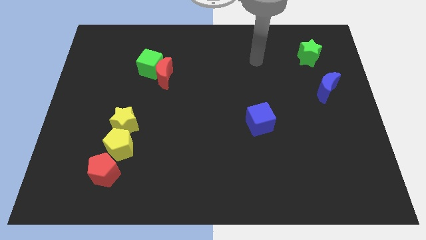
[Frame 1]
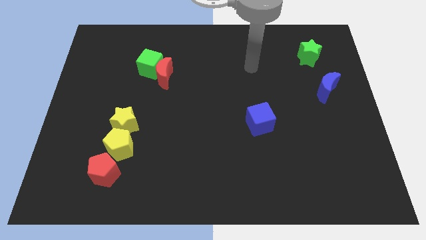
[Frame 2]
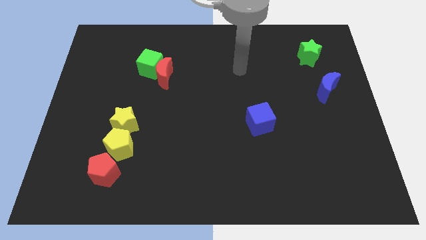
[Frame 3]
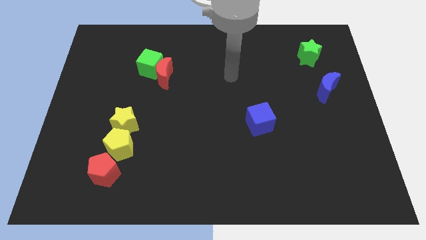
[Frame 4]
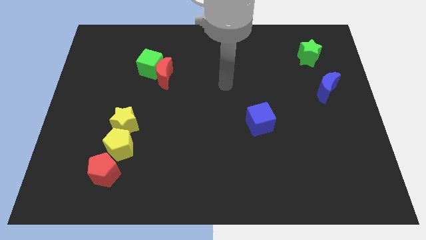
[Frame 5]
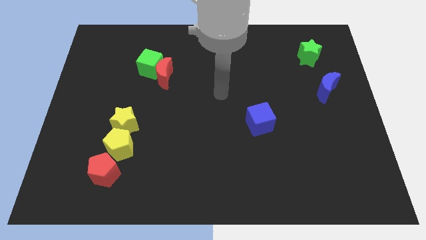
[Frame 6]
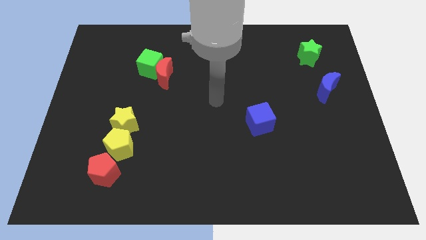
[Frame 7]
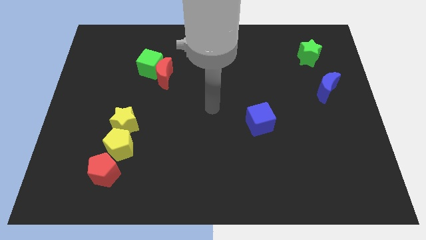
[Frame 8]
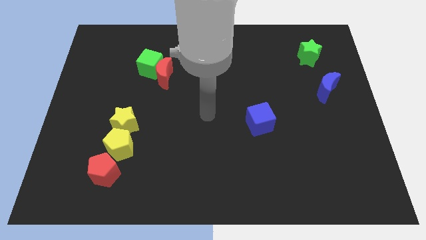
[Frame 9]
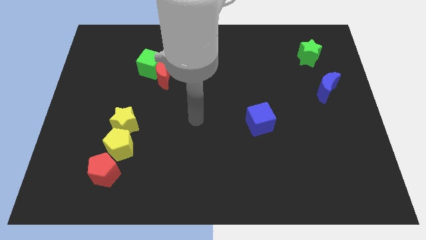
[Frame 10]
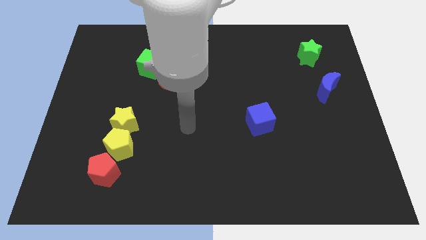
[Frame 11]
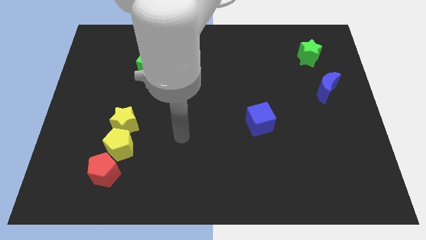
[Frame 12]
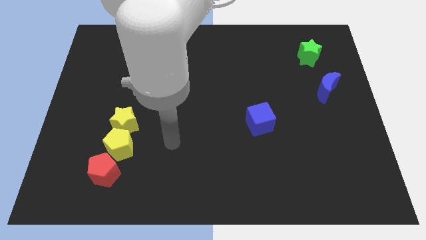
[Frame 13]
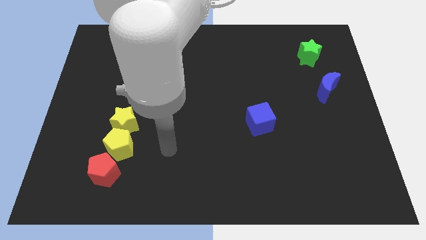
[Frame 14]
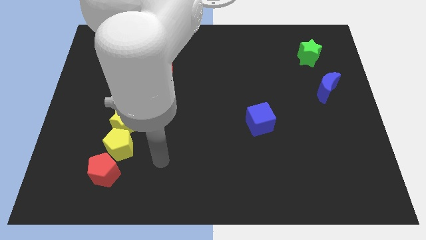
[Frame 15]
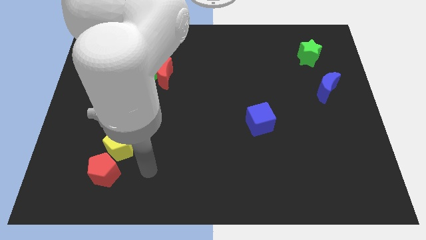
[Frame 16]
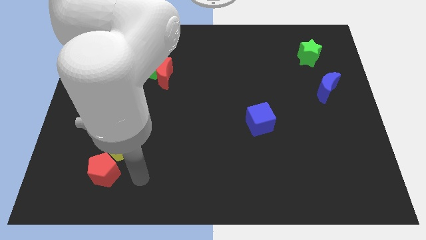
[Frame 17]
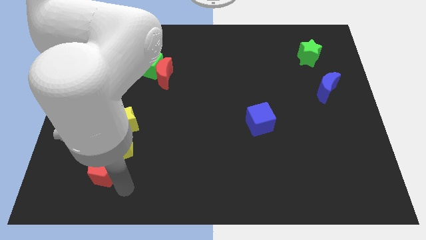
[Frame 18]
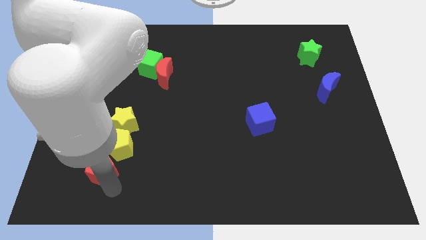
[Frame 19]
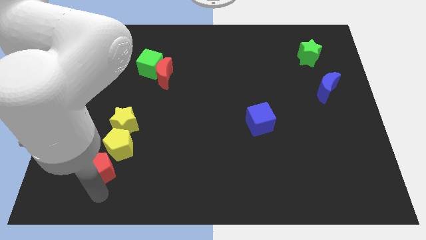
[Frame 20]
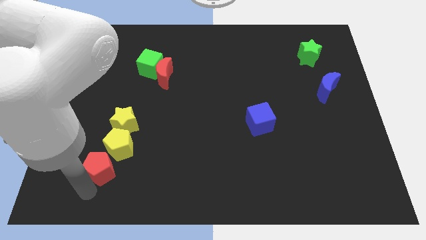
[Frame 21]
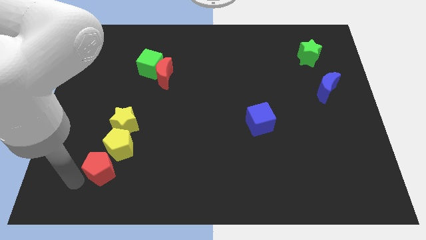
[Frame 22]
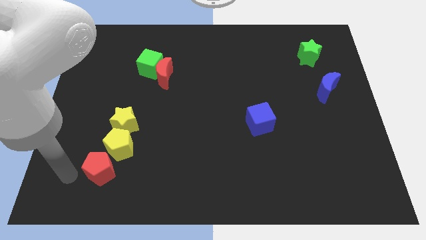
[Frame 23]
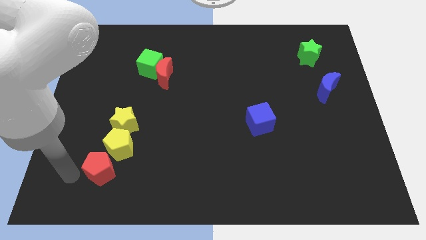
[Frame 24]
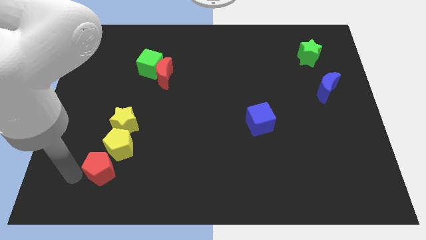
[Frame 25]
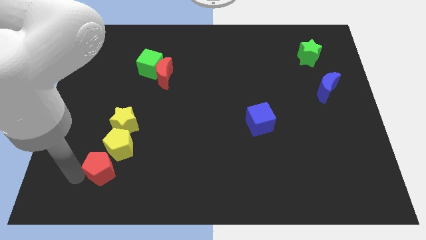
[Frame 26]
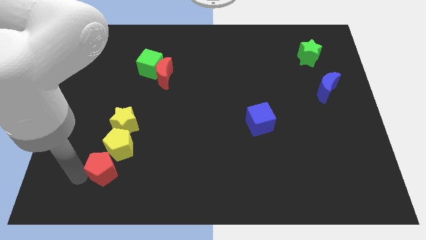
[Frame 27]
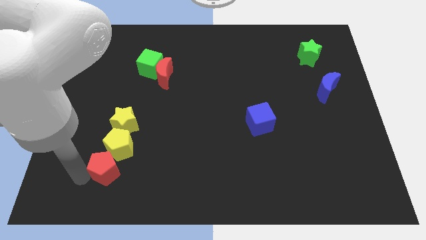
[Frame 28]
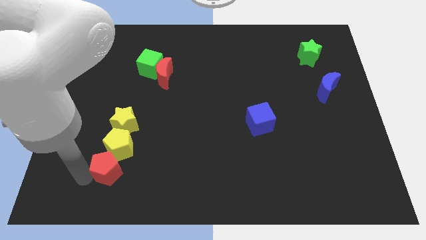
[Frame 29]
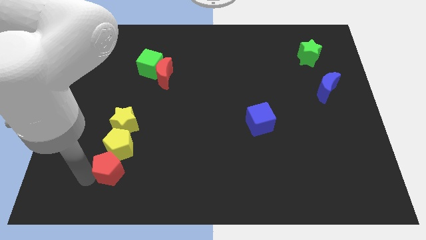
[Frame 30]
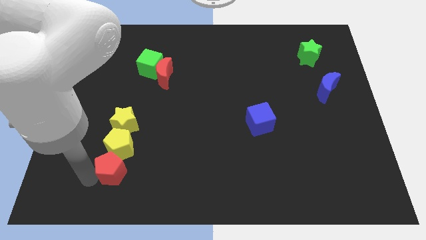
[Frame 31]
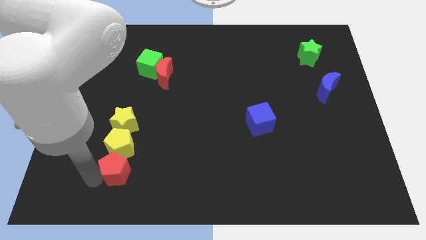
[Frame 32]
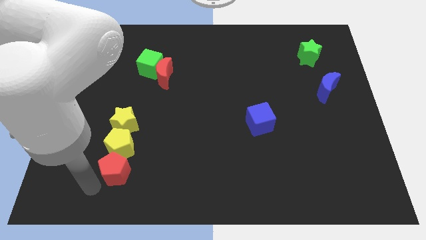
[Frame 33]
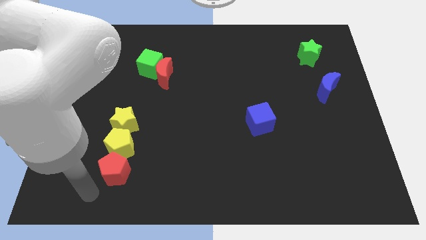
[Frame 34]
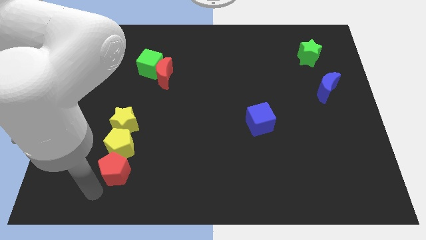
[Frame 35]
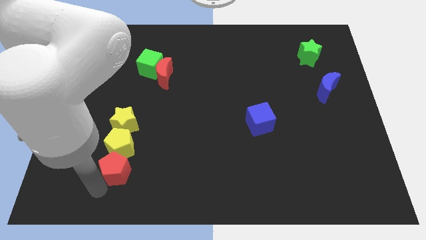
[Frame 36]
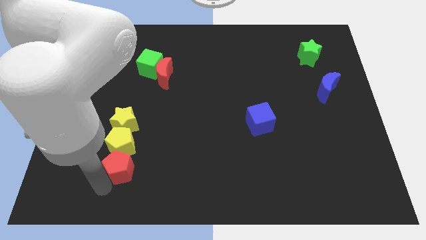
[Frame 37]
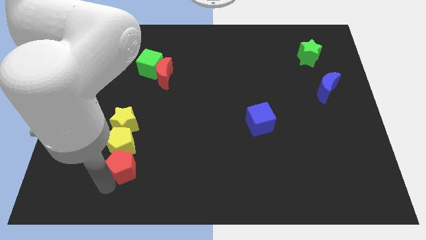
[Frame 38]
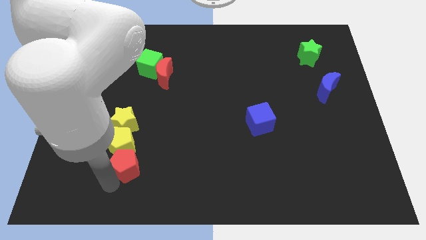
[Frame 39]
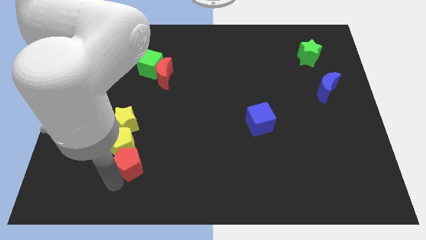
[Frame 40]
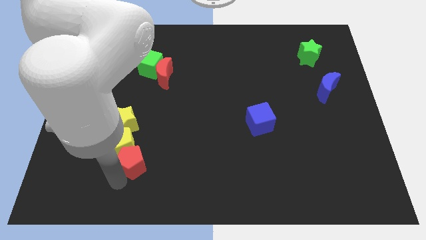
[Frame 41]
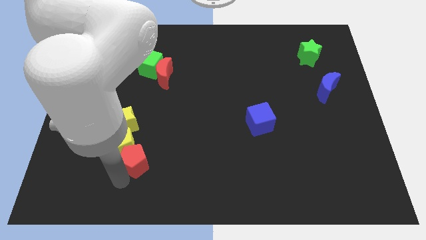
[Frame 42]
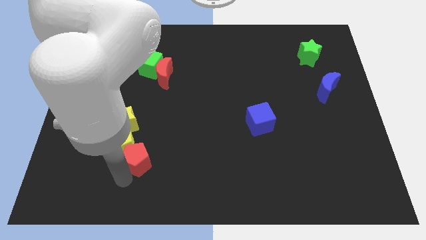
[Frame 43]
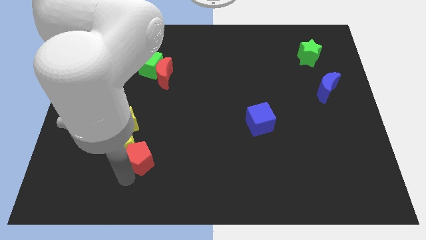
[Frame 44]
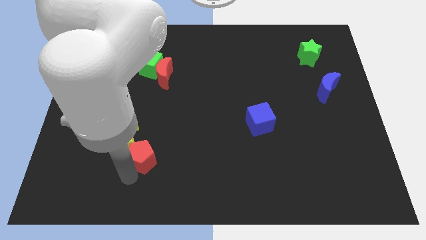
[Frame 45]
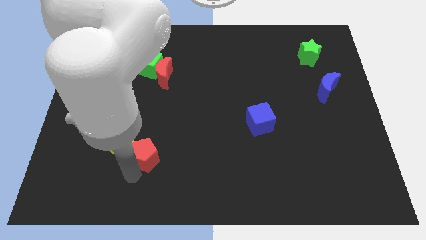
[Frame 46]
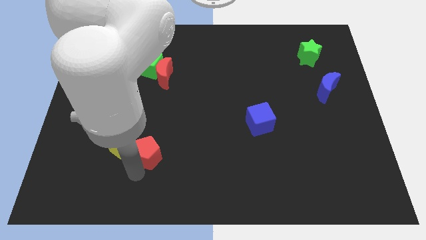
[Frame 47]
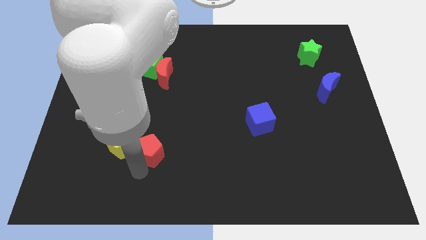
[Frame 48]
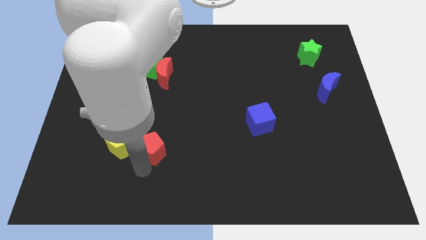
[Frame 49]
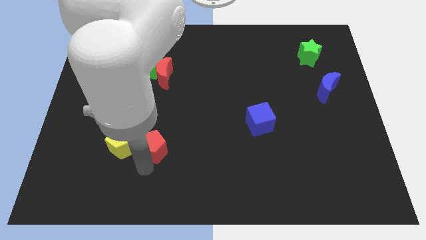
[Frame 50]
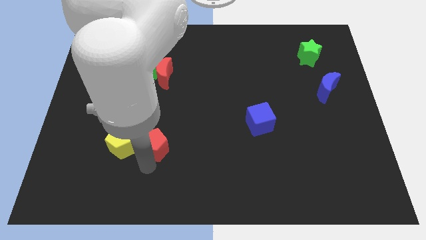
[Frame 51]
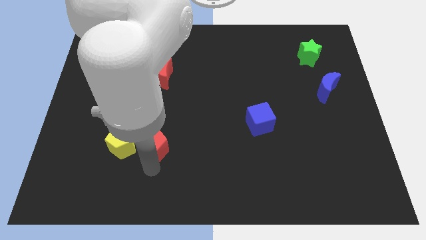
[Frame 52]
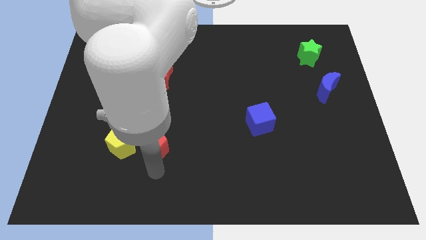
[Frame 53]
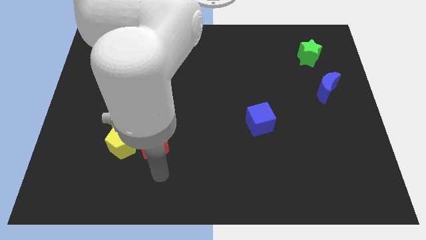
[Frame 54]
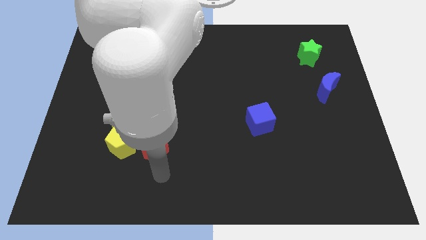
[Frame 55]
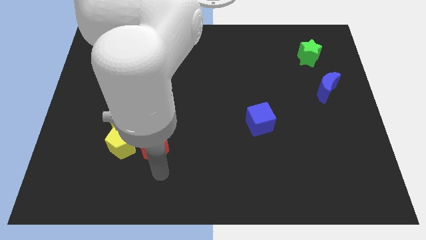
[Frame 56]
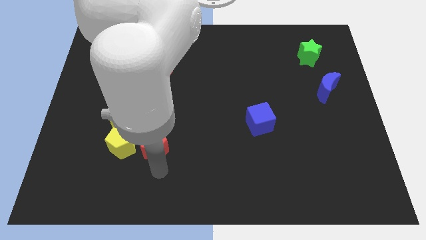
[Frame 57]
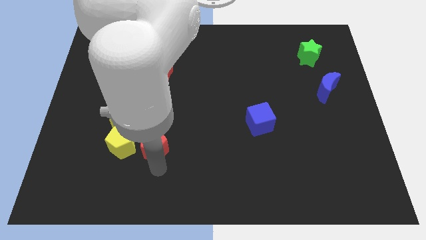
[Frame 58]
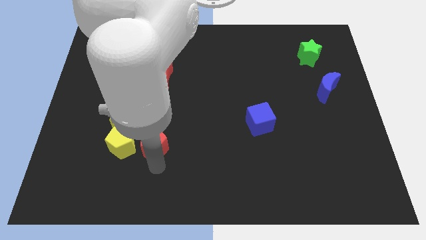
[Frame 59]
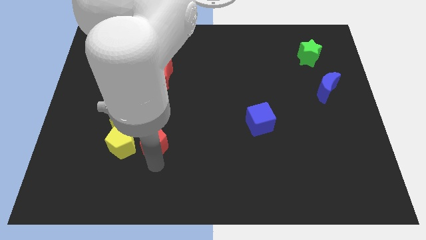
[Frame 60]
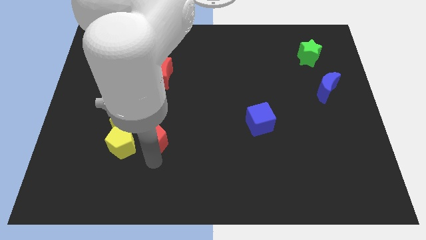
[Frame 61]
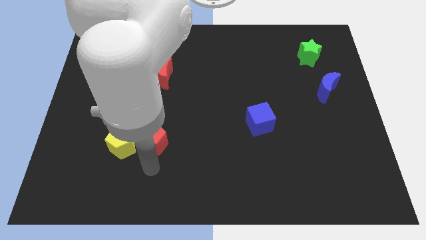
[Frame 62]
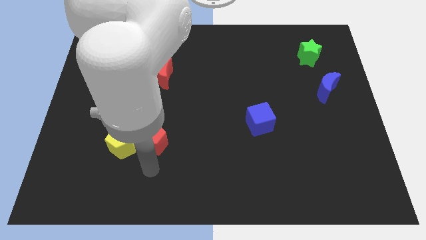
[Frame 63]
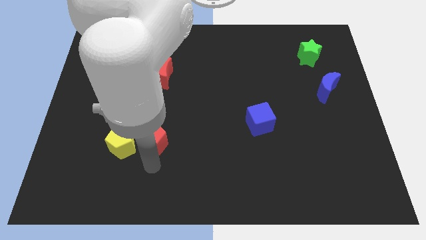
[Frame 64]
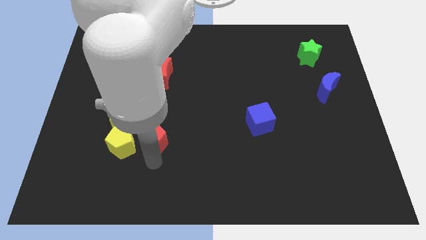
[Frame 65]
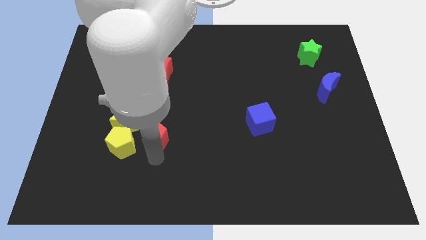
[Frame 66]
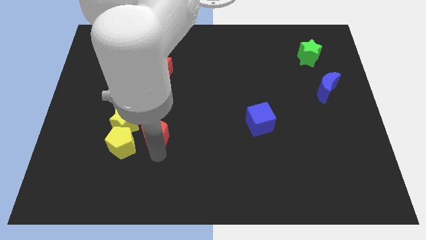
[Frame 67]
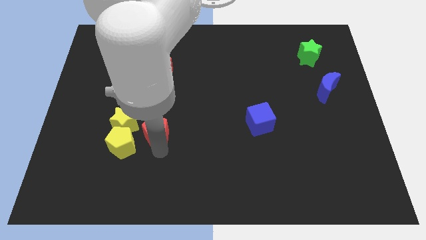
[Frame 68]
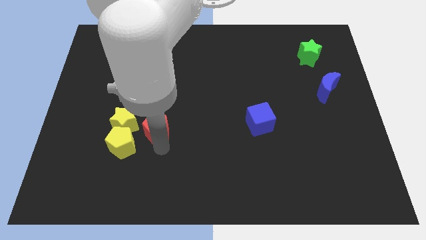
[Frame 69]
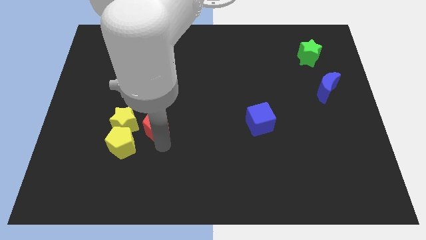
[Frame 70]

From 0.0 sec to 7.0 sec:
put the red pentagon below the red moon
